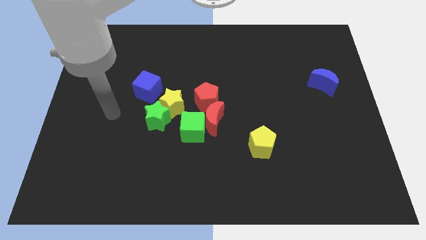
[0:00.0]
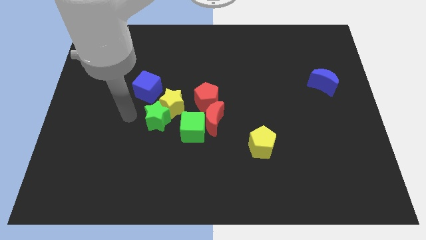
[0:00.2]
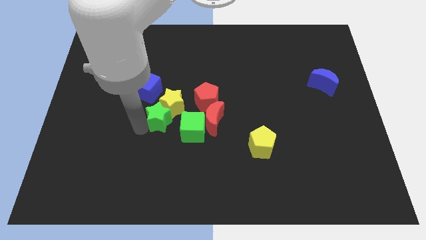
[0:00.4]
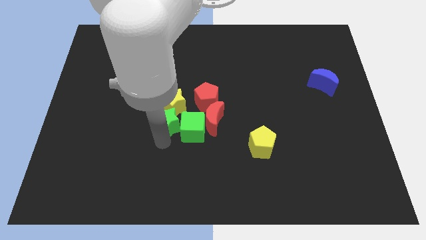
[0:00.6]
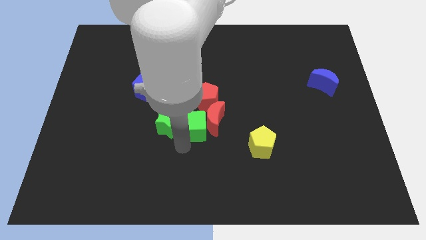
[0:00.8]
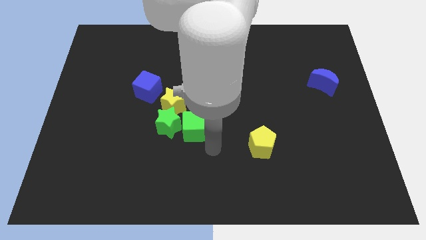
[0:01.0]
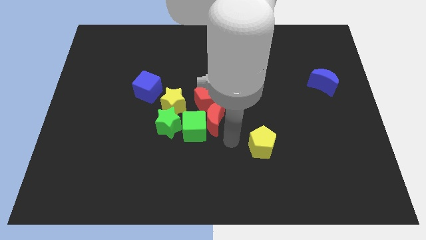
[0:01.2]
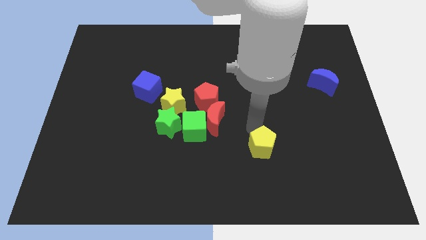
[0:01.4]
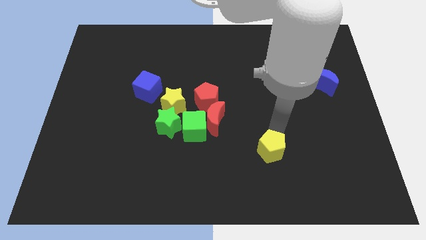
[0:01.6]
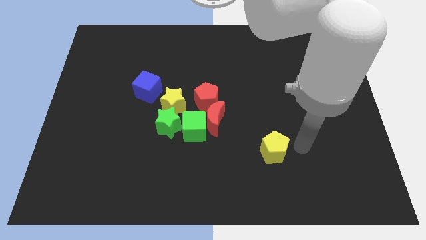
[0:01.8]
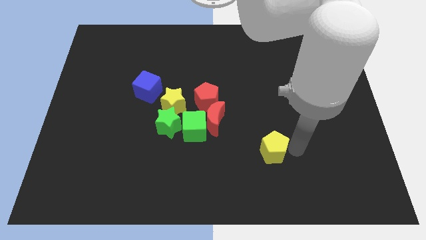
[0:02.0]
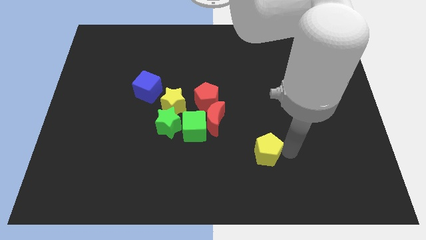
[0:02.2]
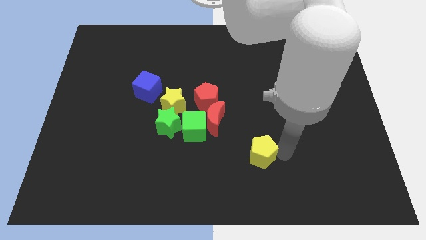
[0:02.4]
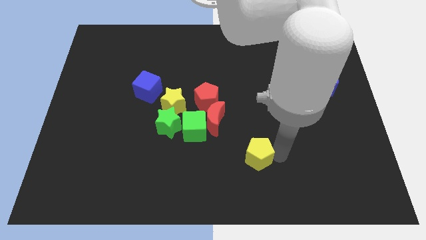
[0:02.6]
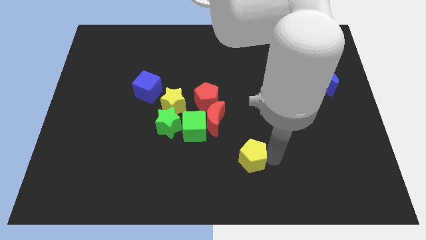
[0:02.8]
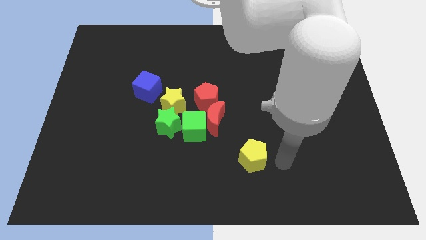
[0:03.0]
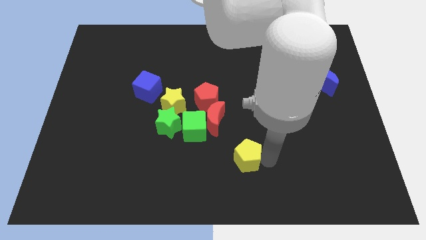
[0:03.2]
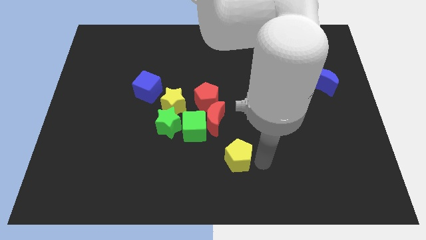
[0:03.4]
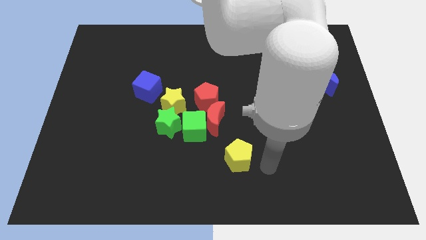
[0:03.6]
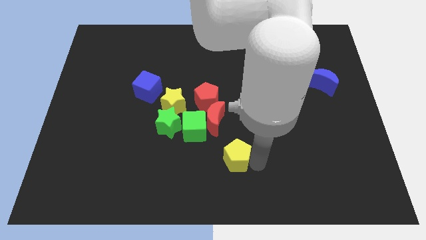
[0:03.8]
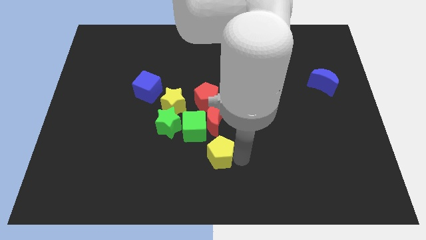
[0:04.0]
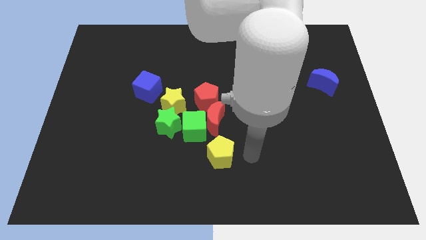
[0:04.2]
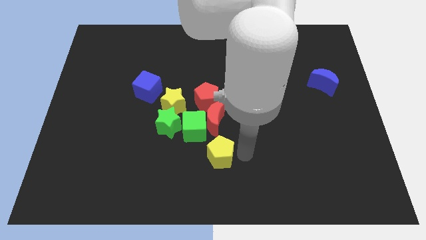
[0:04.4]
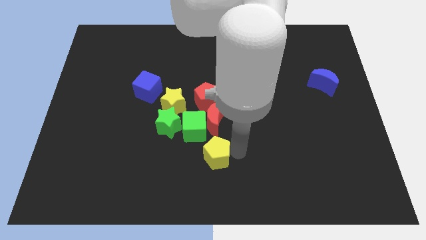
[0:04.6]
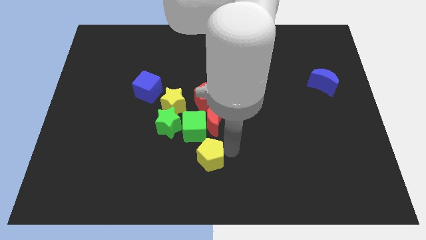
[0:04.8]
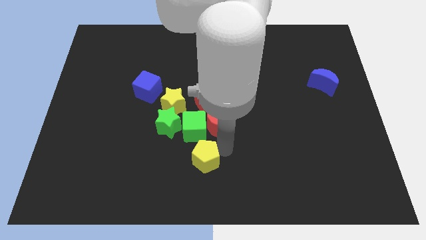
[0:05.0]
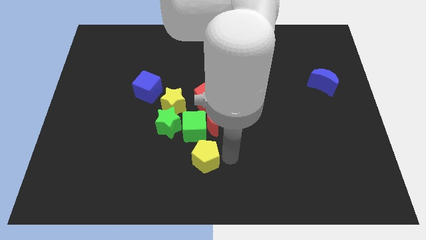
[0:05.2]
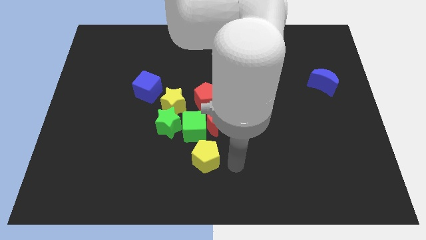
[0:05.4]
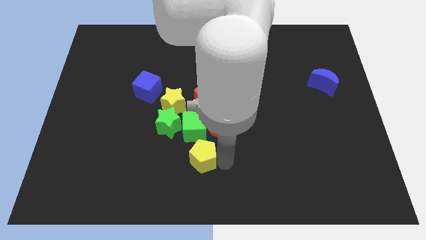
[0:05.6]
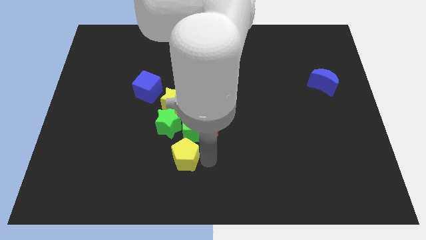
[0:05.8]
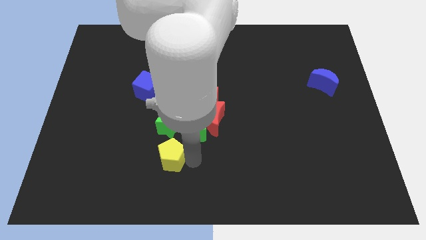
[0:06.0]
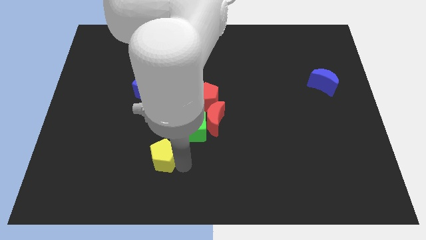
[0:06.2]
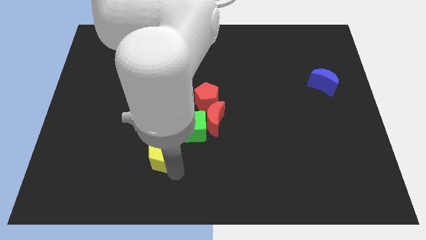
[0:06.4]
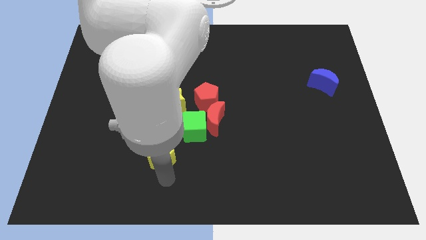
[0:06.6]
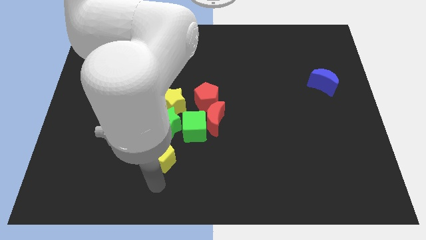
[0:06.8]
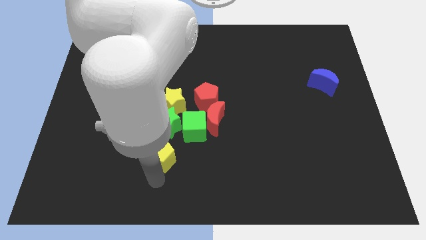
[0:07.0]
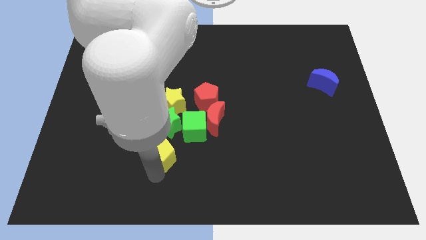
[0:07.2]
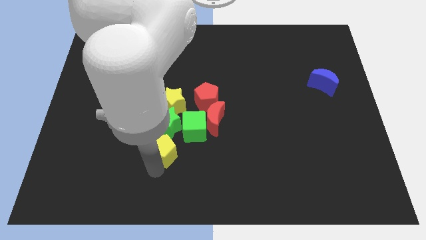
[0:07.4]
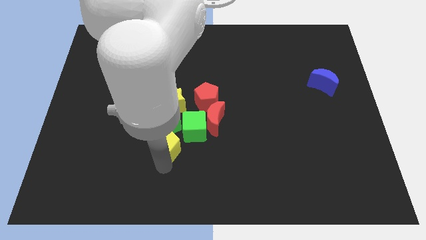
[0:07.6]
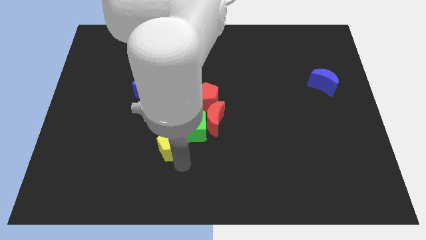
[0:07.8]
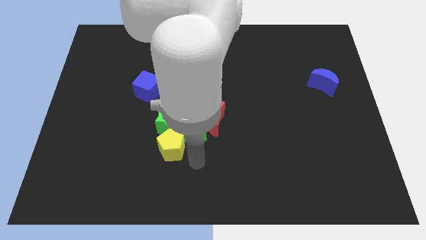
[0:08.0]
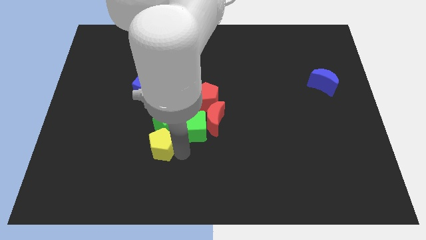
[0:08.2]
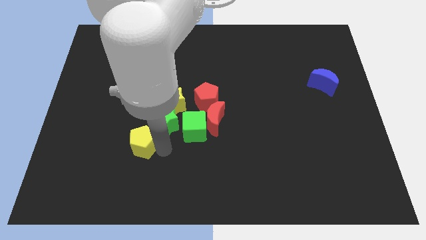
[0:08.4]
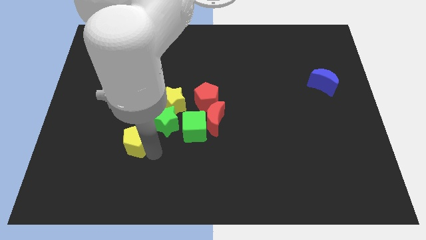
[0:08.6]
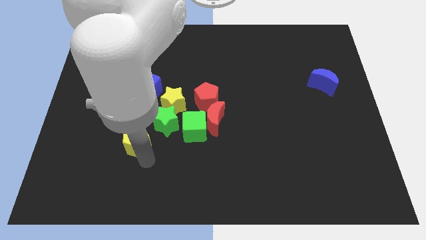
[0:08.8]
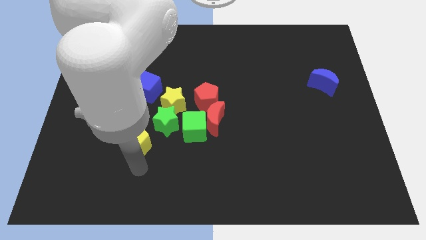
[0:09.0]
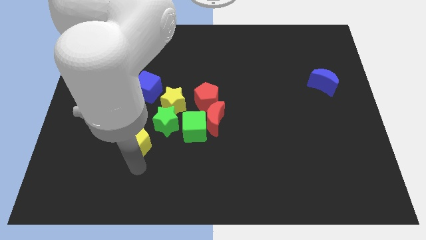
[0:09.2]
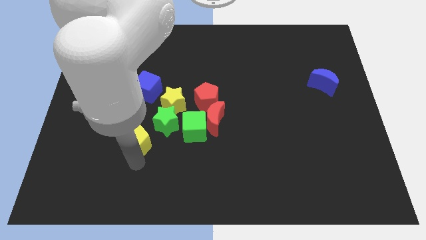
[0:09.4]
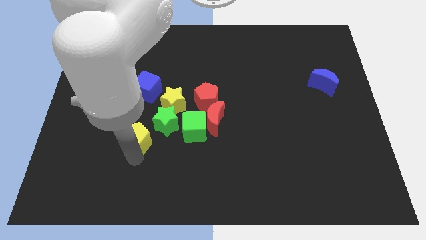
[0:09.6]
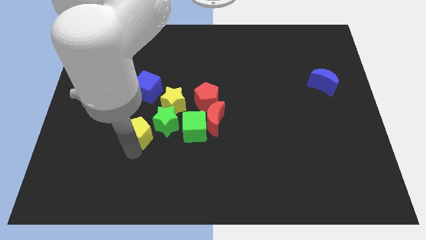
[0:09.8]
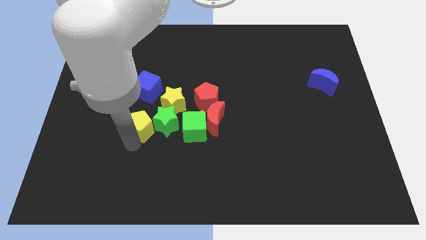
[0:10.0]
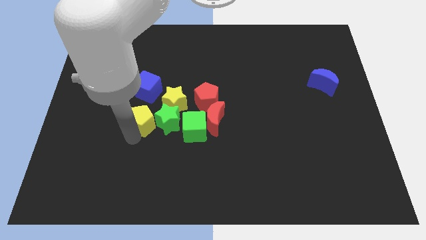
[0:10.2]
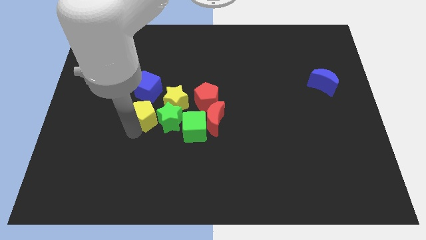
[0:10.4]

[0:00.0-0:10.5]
put the yellow pentagon to the left of the yellow star

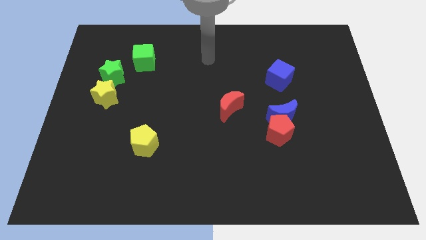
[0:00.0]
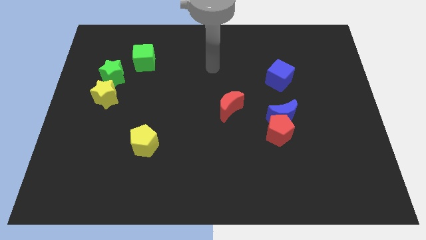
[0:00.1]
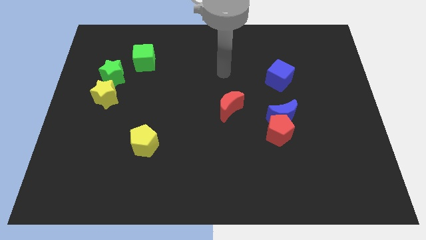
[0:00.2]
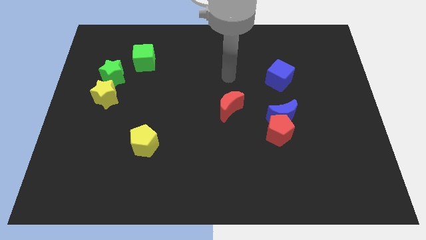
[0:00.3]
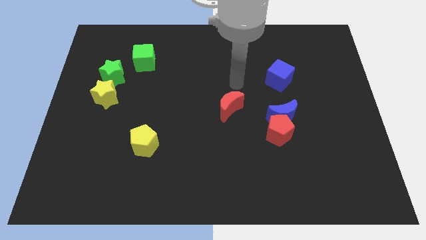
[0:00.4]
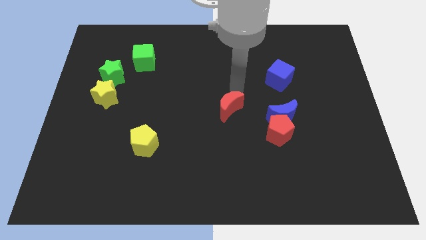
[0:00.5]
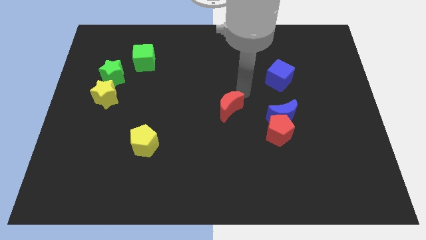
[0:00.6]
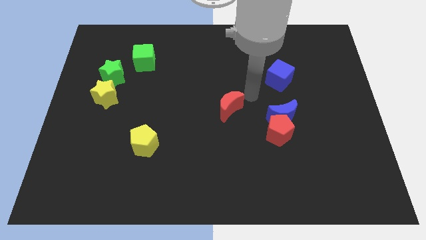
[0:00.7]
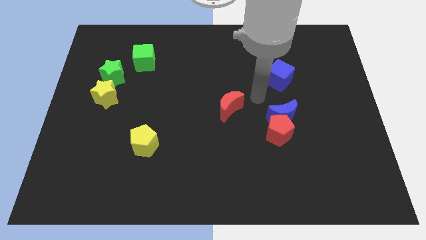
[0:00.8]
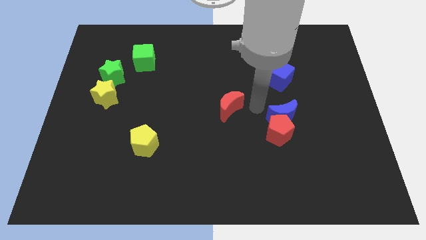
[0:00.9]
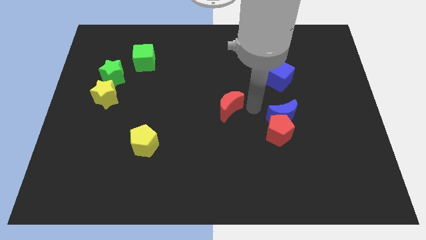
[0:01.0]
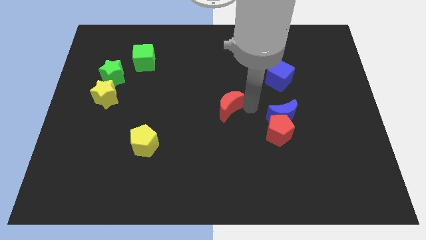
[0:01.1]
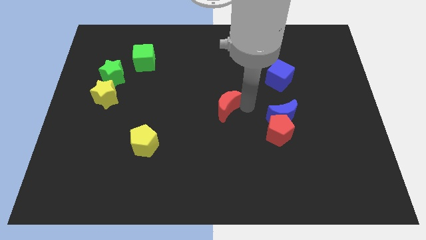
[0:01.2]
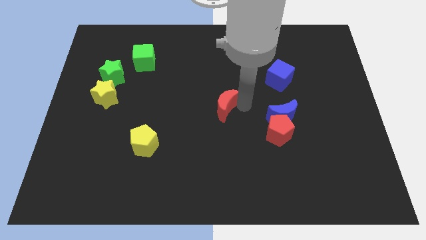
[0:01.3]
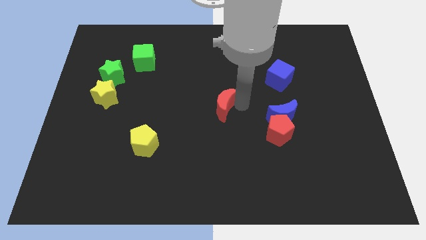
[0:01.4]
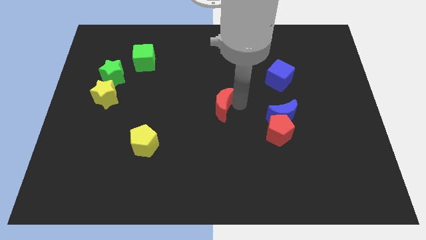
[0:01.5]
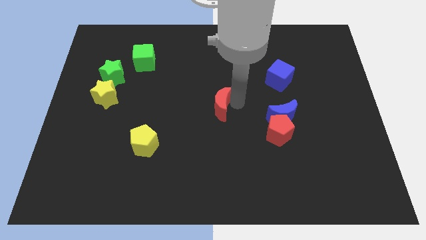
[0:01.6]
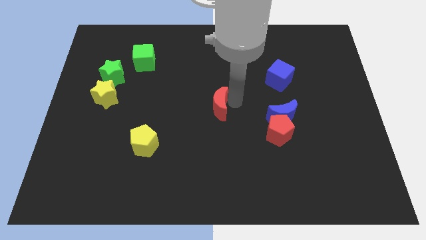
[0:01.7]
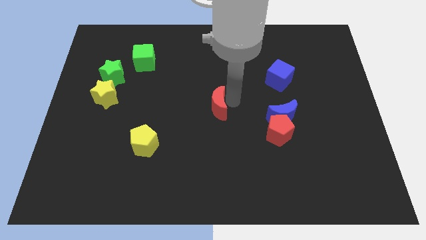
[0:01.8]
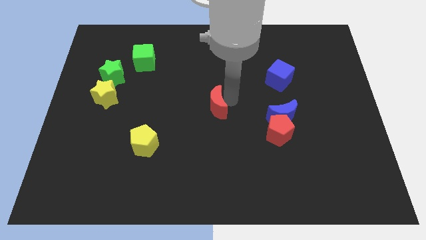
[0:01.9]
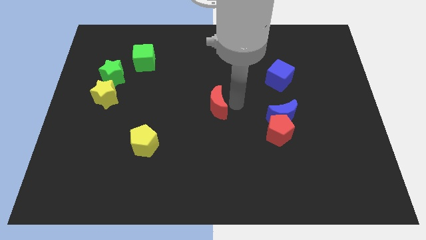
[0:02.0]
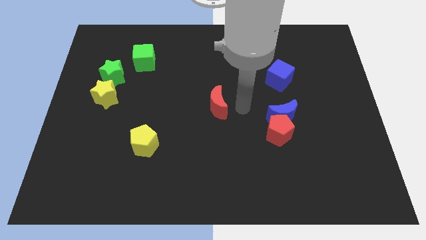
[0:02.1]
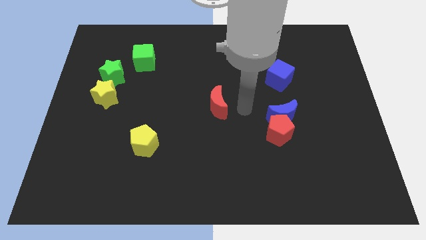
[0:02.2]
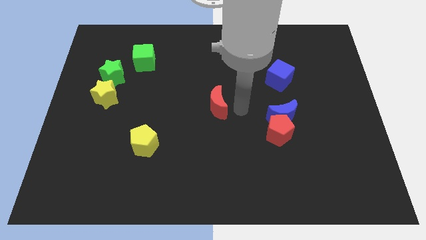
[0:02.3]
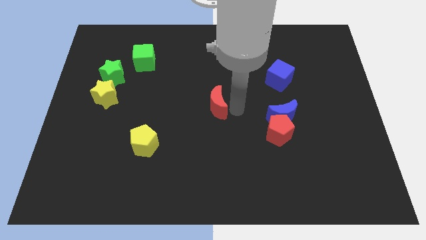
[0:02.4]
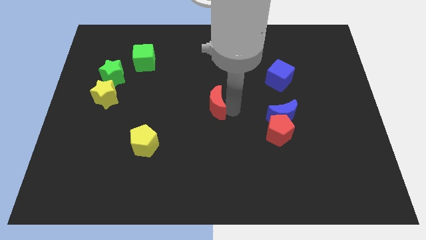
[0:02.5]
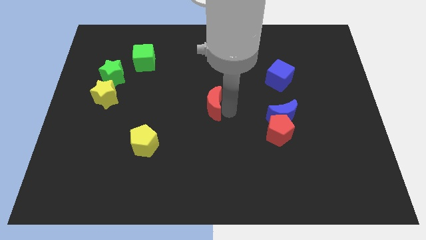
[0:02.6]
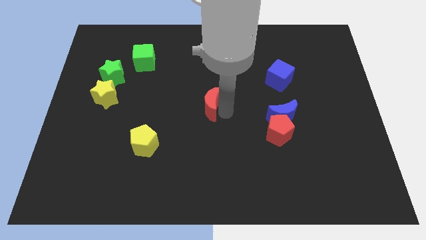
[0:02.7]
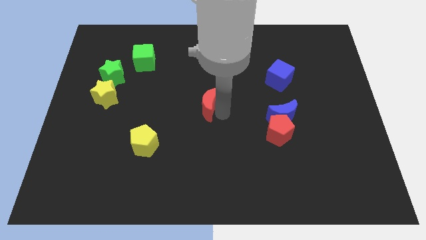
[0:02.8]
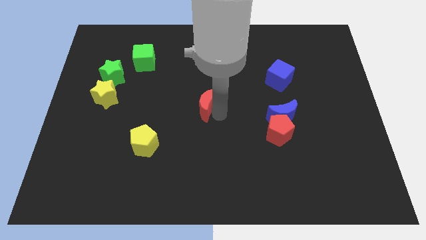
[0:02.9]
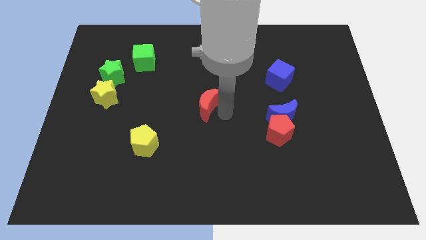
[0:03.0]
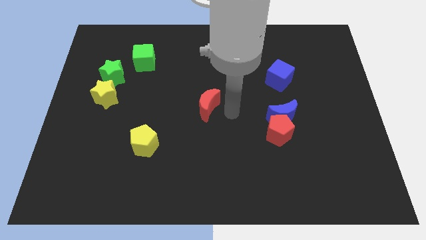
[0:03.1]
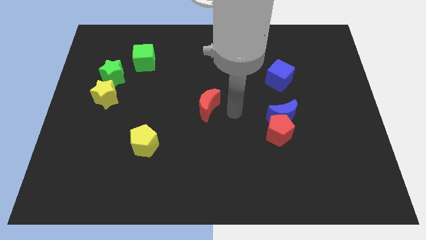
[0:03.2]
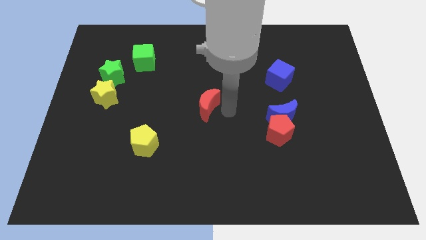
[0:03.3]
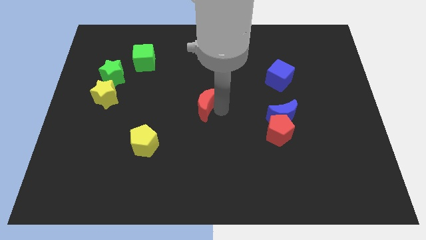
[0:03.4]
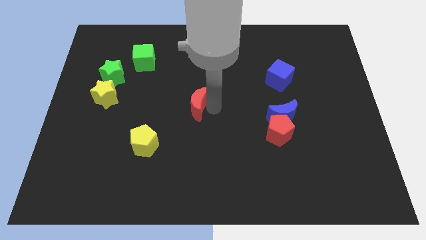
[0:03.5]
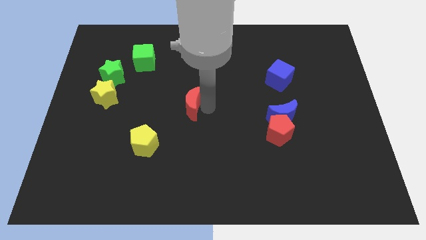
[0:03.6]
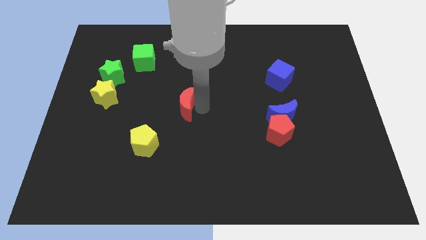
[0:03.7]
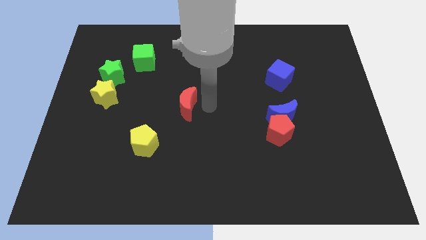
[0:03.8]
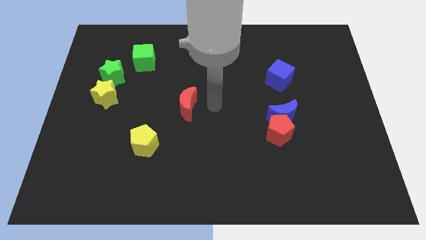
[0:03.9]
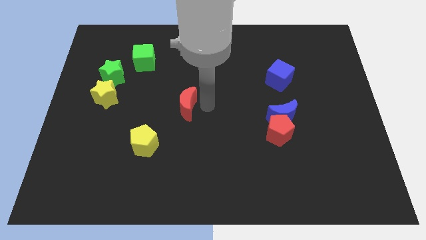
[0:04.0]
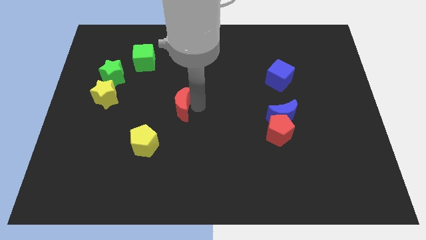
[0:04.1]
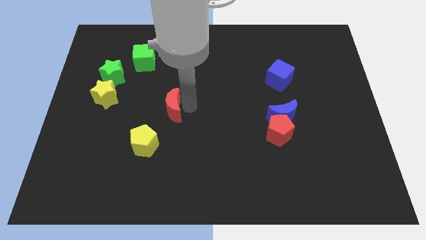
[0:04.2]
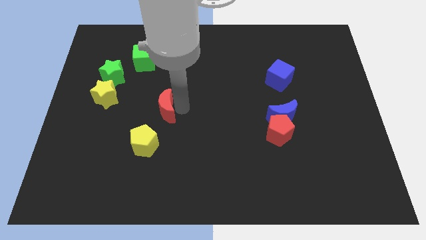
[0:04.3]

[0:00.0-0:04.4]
put the red moon to the top side of the yellow pentagon
